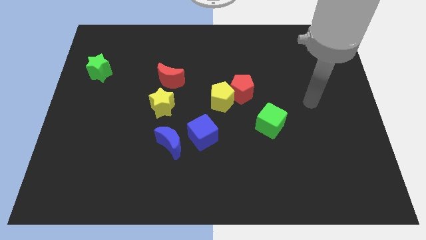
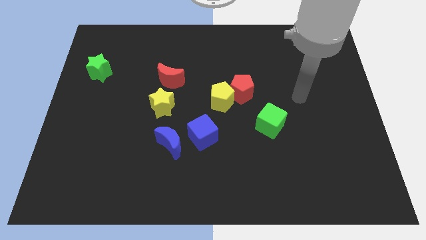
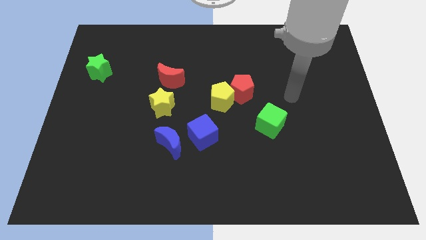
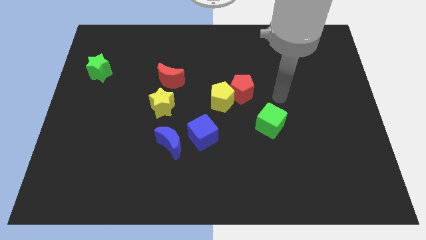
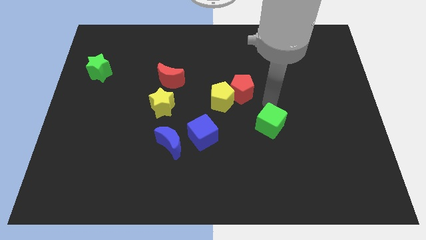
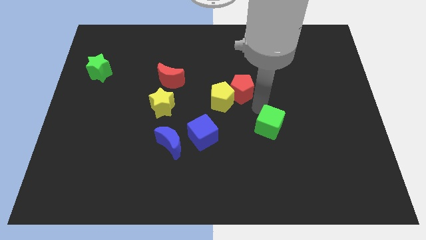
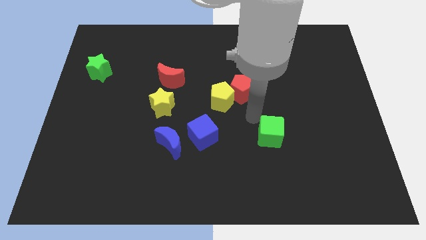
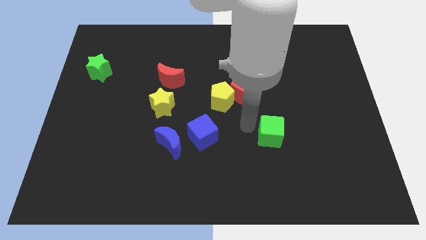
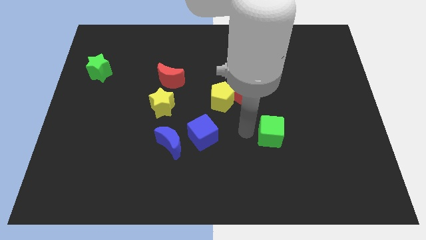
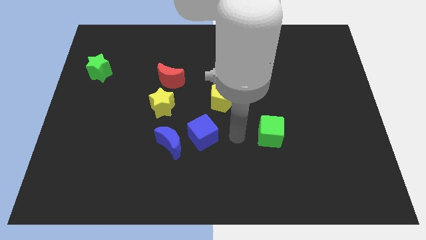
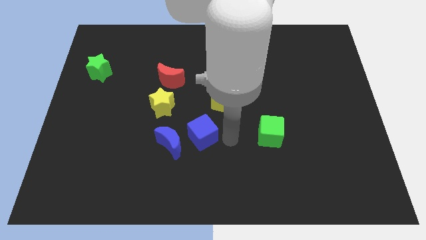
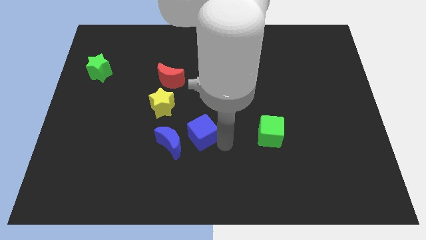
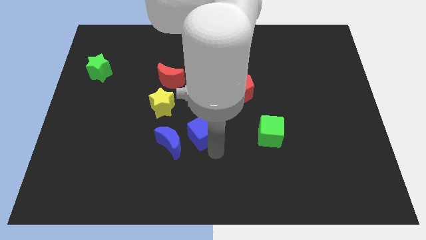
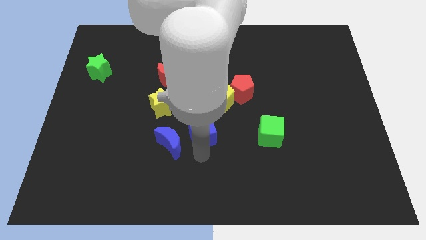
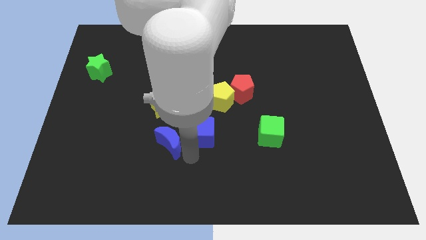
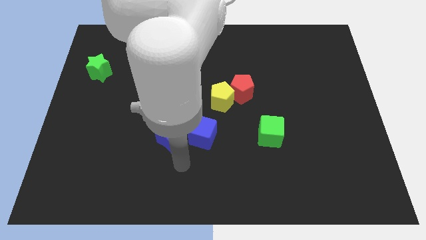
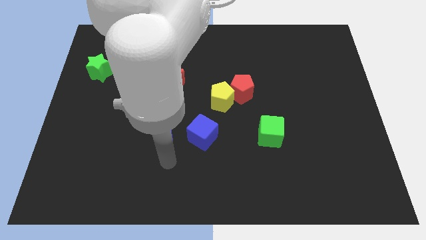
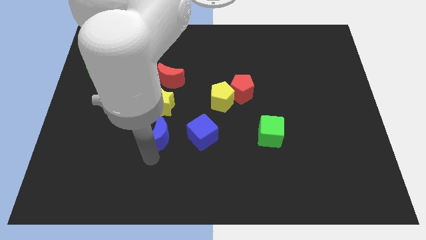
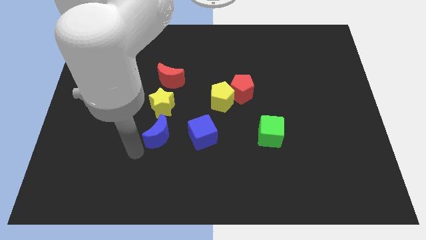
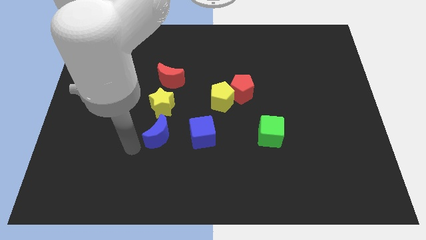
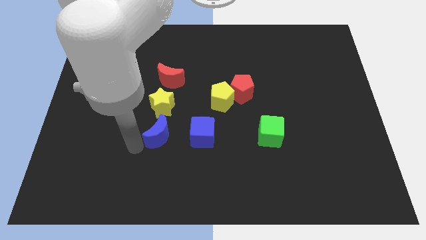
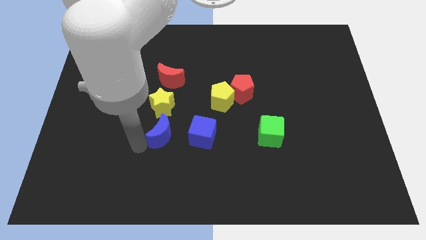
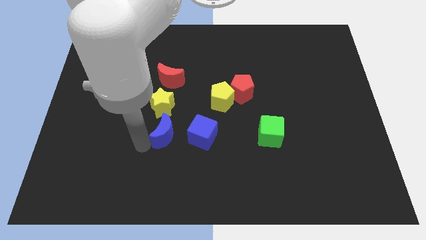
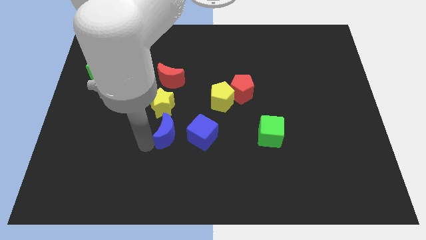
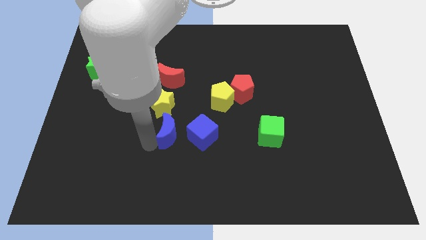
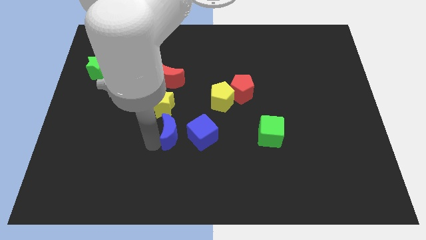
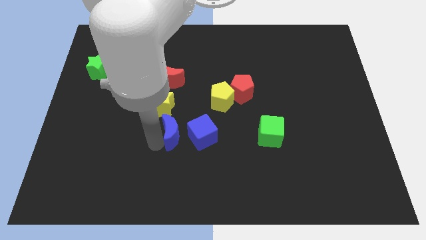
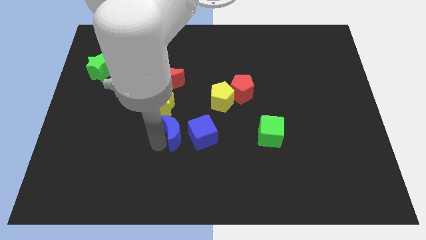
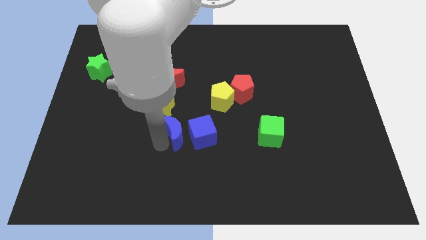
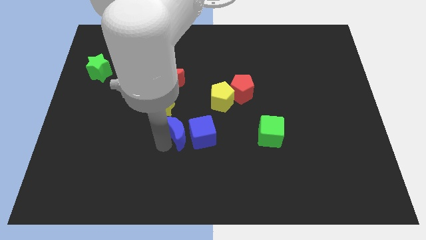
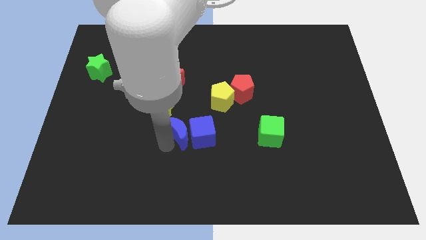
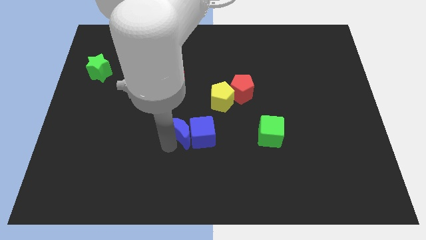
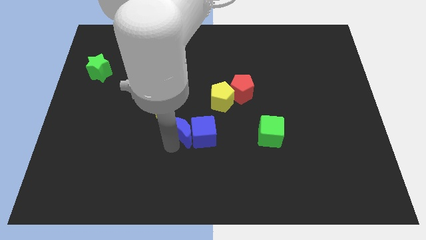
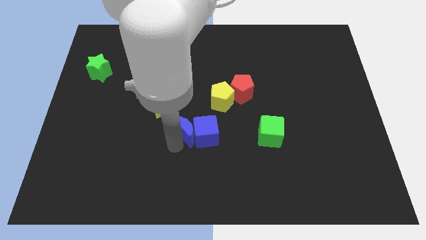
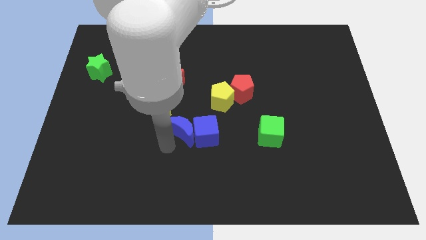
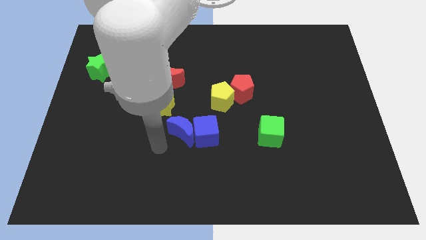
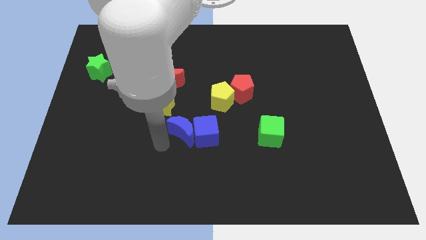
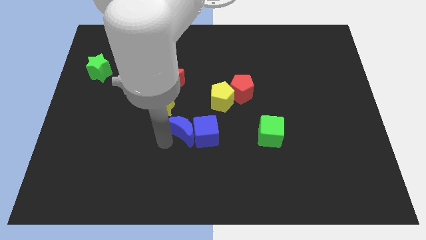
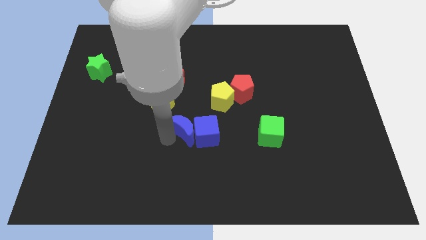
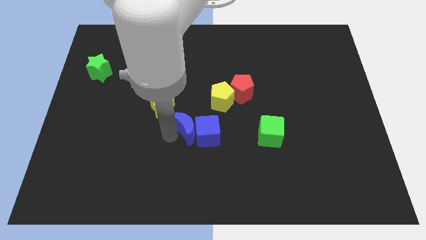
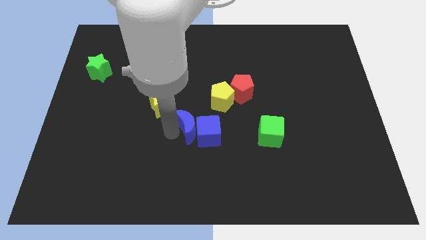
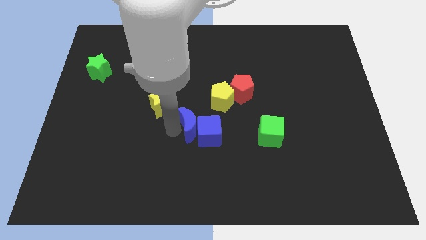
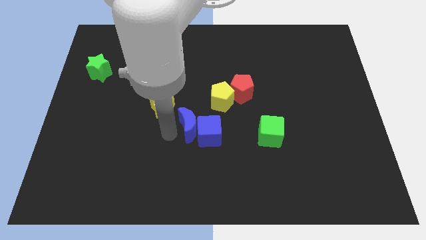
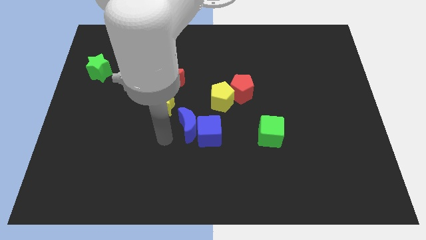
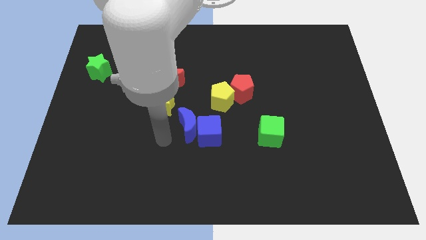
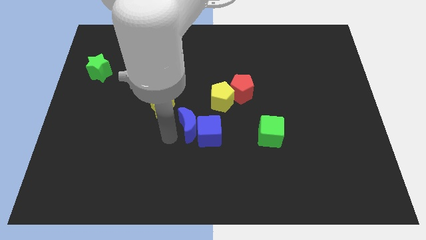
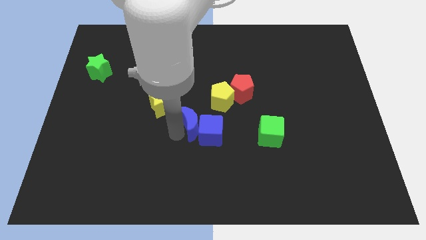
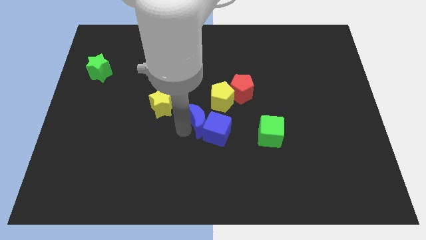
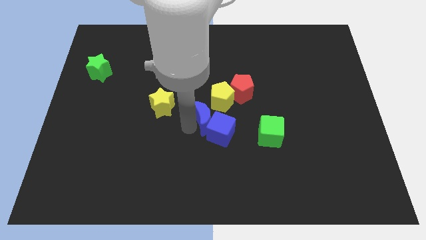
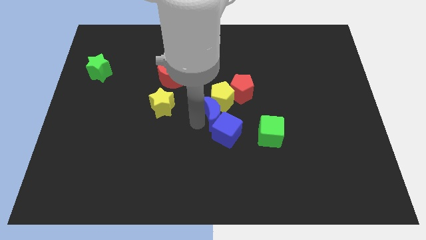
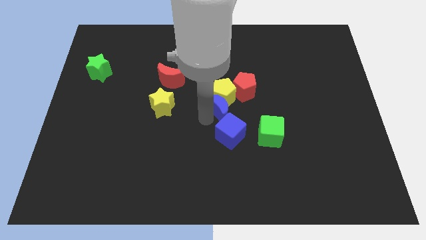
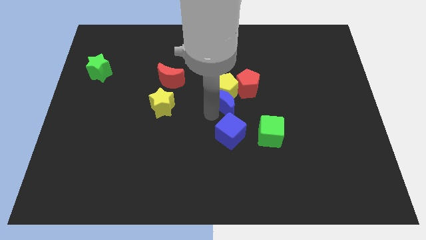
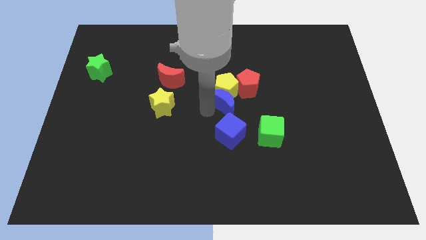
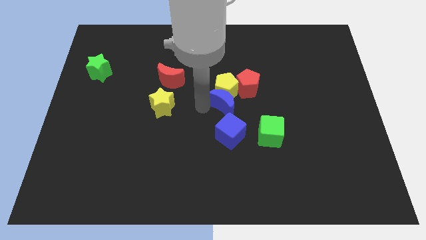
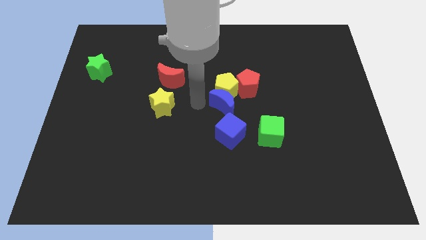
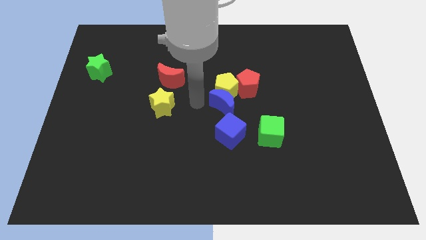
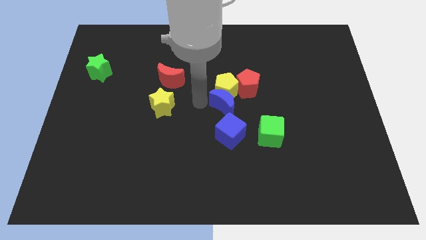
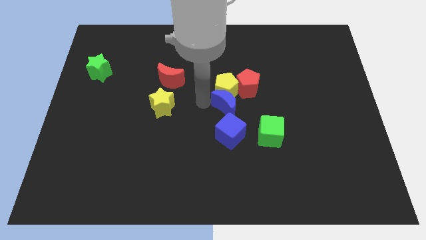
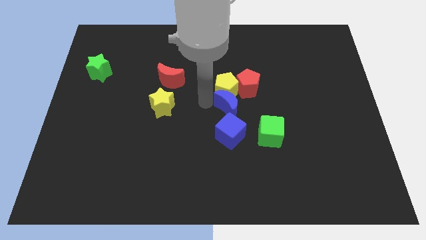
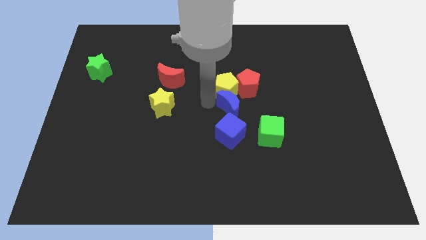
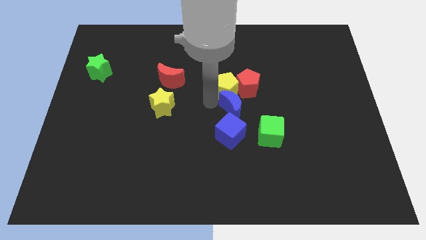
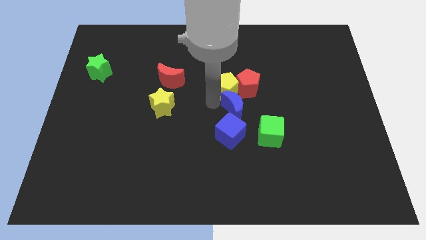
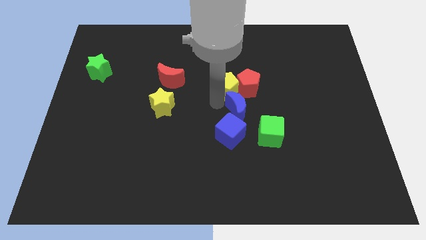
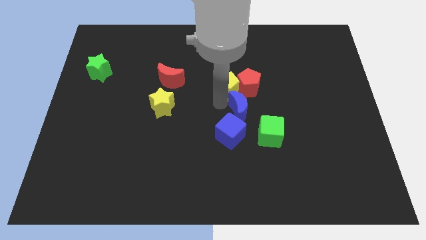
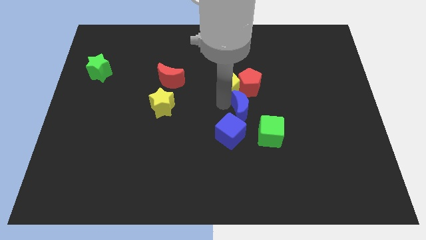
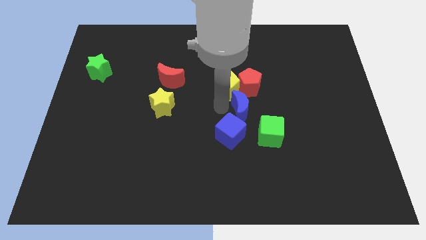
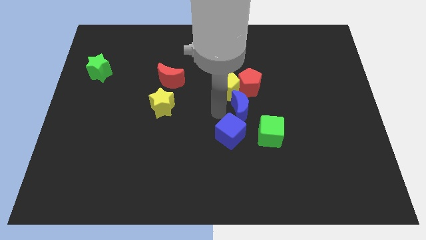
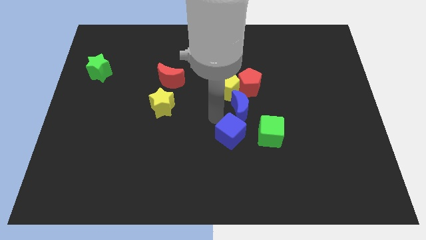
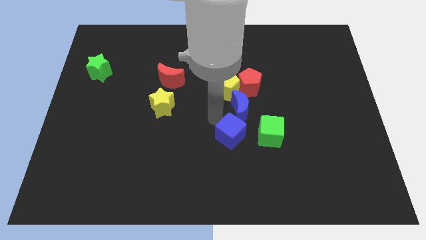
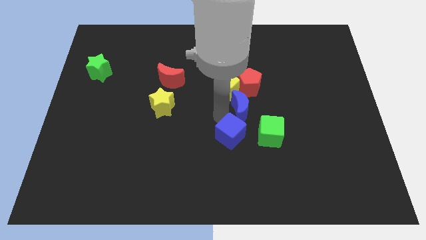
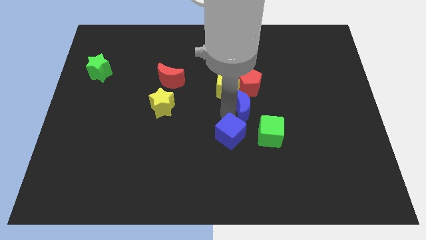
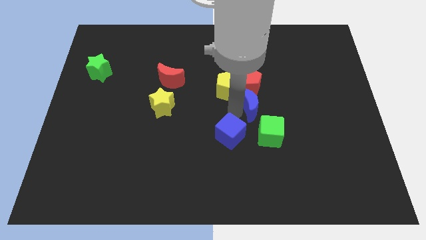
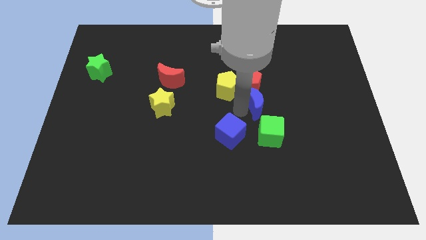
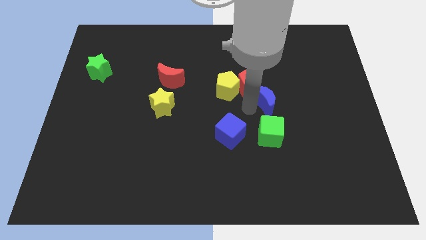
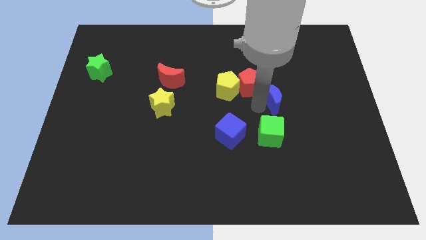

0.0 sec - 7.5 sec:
push the blue moon right of the red pentagon

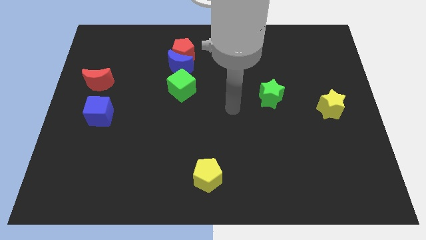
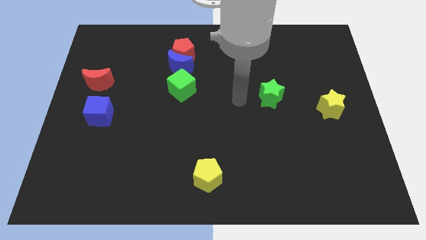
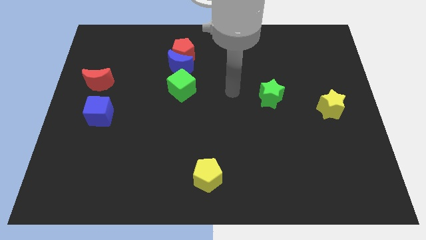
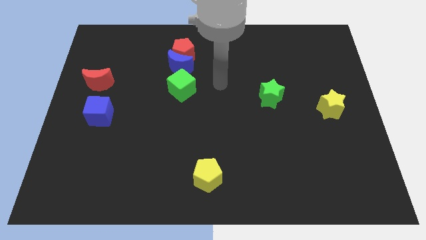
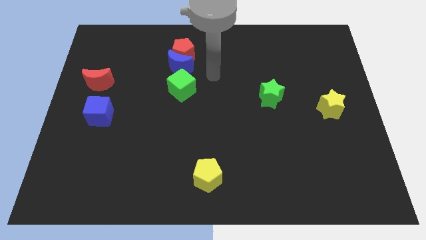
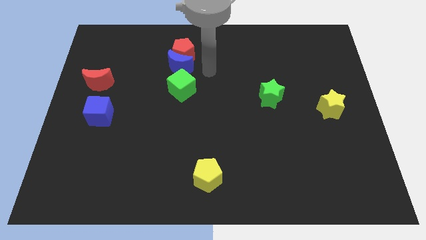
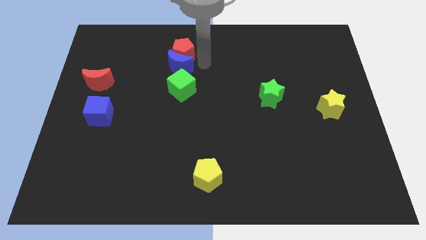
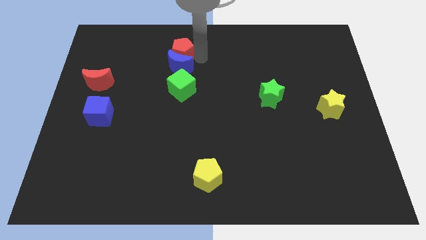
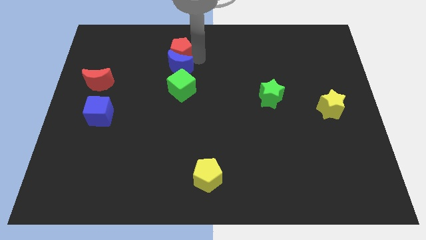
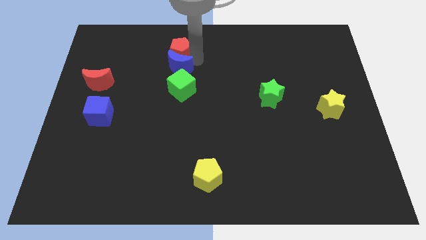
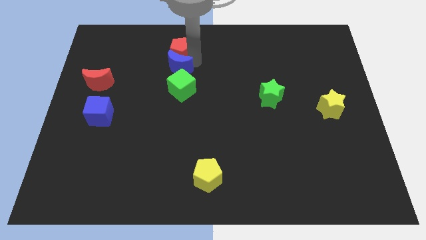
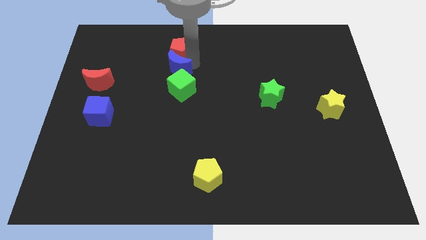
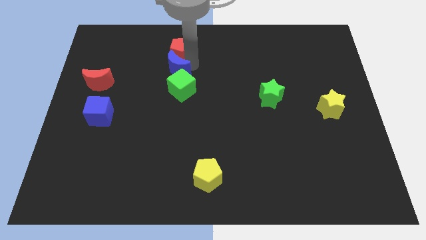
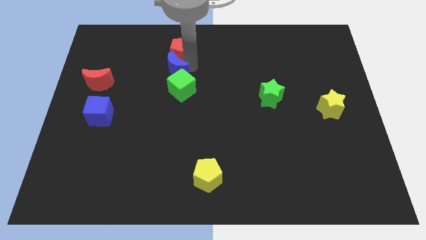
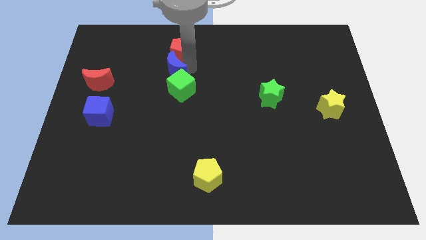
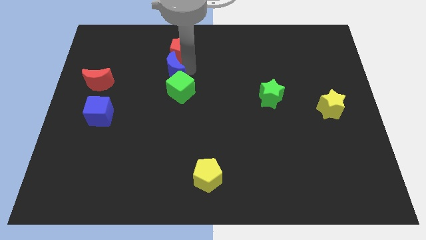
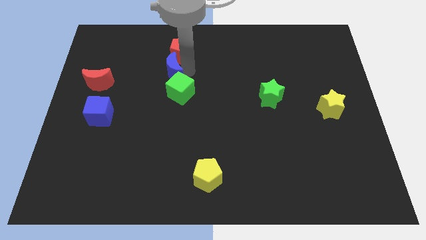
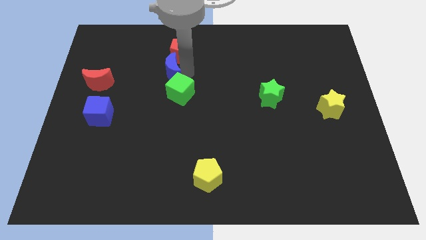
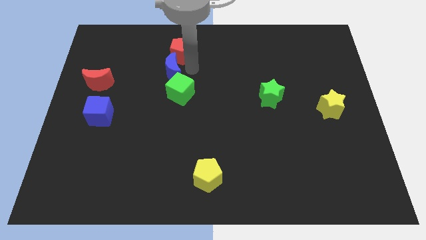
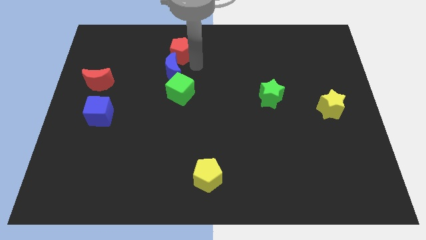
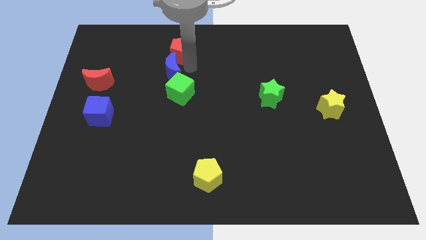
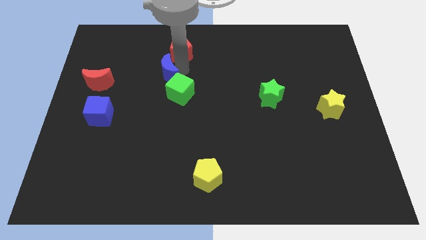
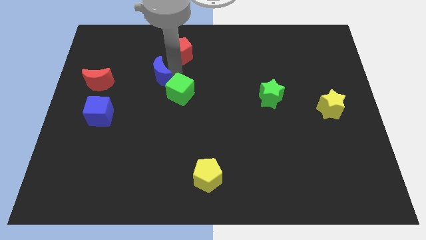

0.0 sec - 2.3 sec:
move the blue moon to the right side of the red moon
